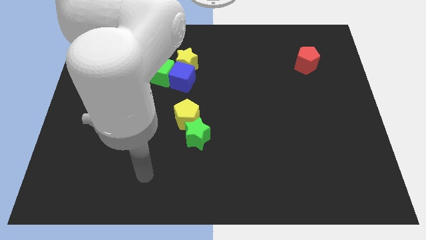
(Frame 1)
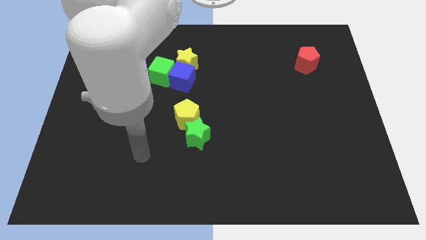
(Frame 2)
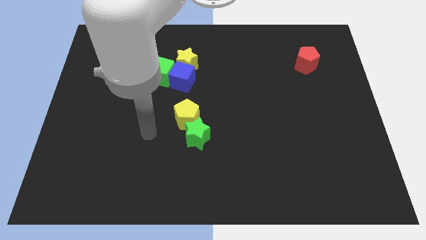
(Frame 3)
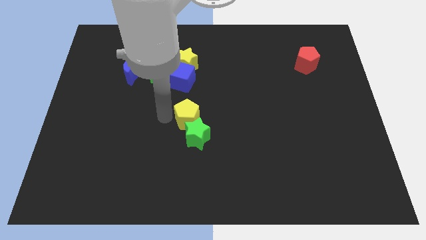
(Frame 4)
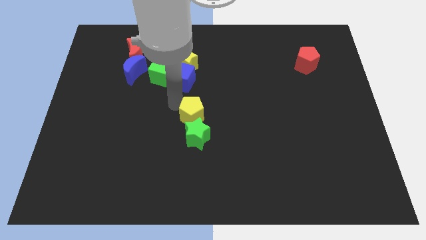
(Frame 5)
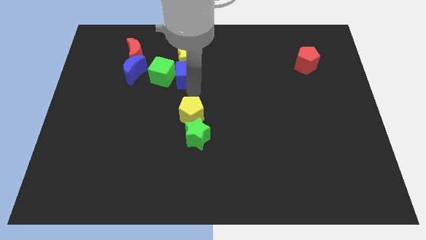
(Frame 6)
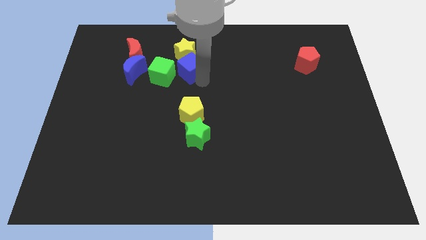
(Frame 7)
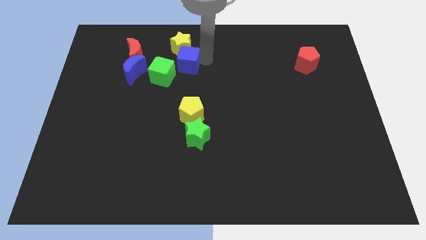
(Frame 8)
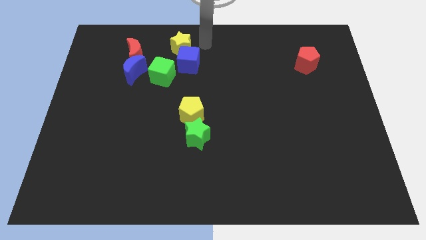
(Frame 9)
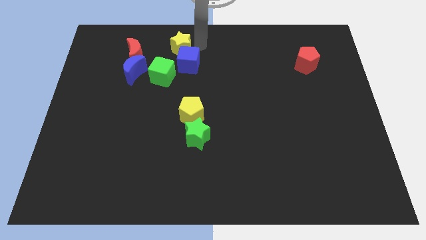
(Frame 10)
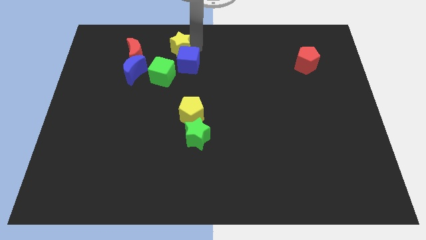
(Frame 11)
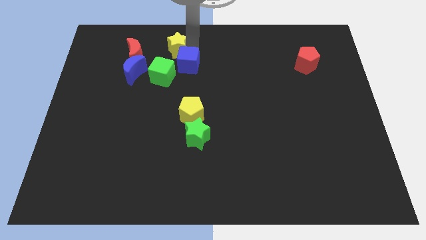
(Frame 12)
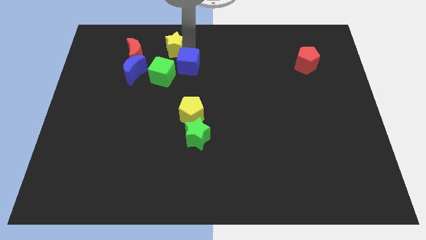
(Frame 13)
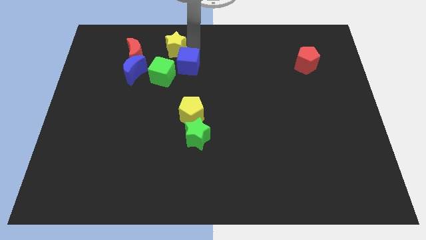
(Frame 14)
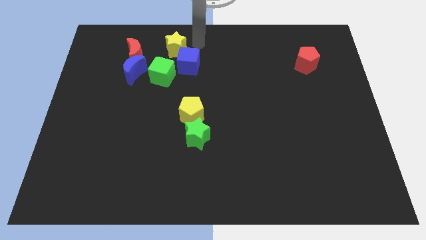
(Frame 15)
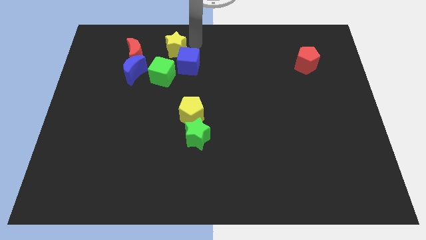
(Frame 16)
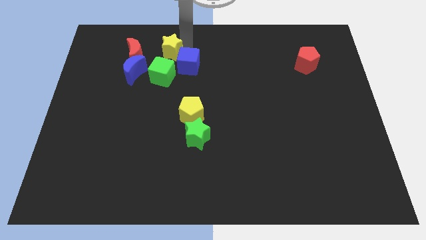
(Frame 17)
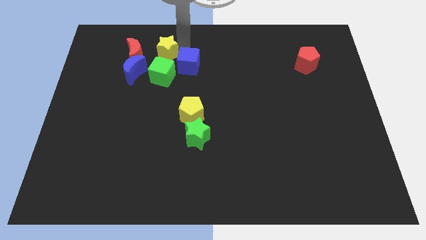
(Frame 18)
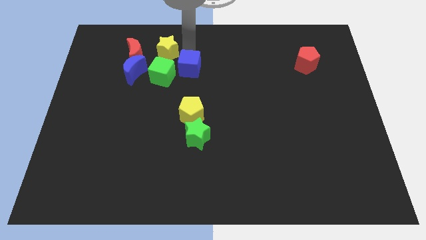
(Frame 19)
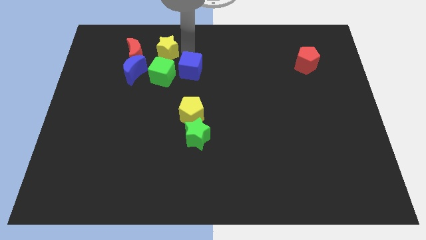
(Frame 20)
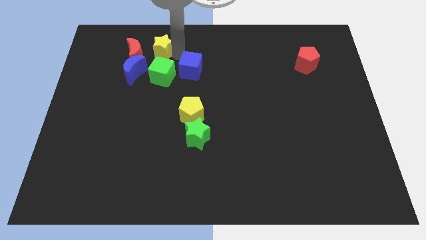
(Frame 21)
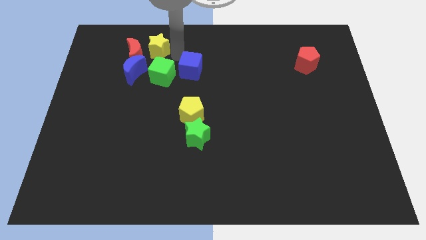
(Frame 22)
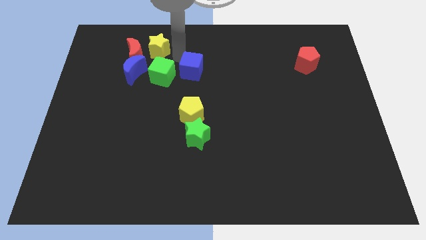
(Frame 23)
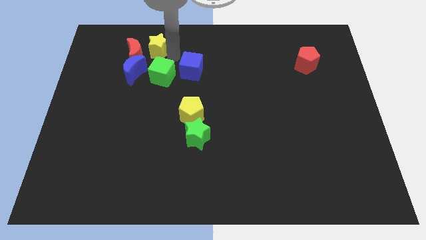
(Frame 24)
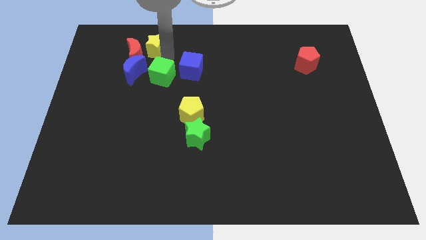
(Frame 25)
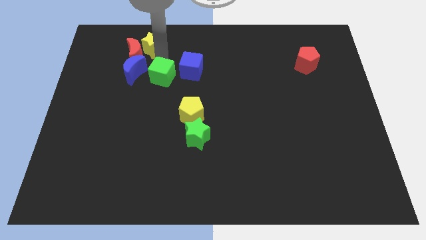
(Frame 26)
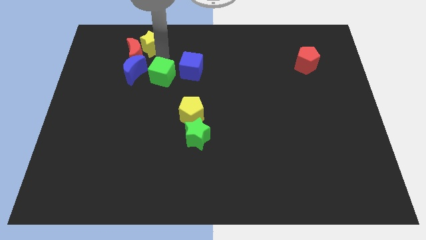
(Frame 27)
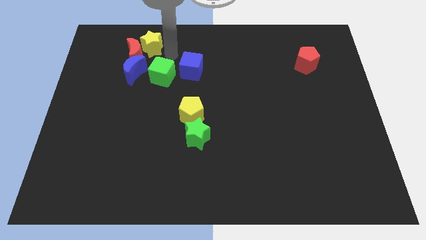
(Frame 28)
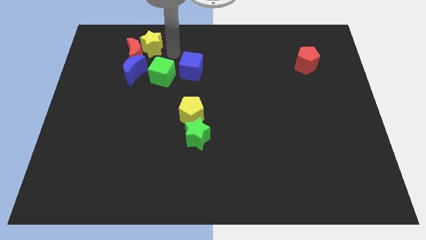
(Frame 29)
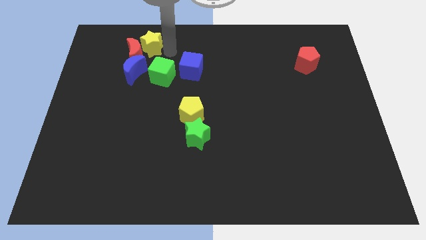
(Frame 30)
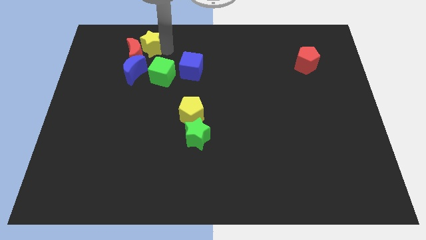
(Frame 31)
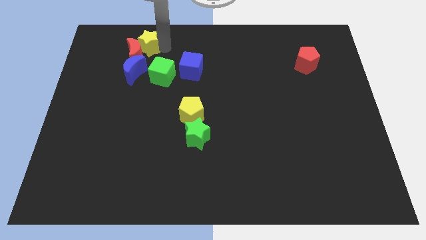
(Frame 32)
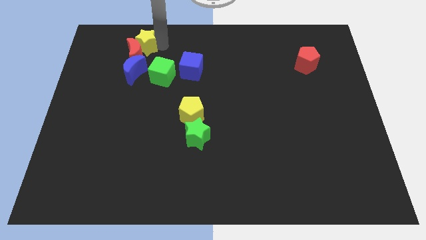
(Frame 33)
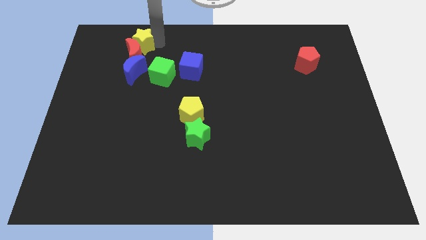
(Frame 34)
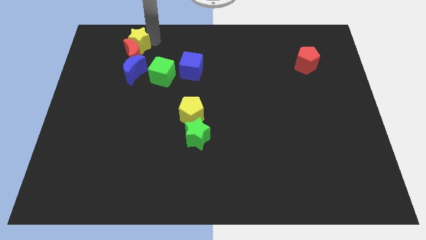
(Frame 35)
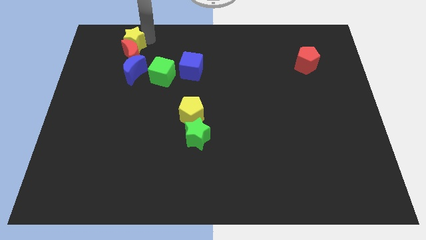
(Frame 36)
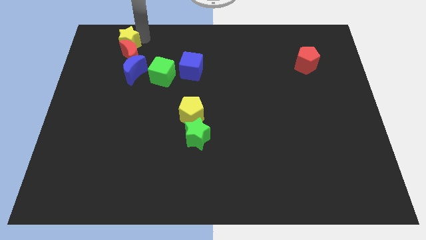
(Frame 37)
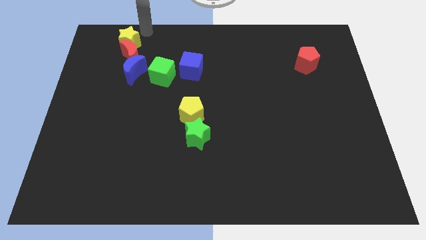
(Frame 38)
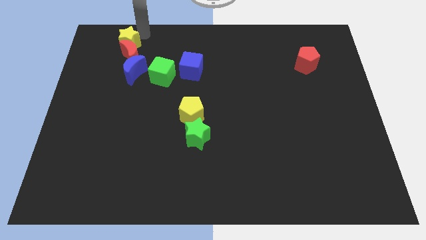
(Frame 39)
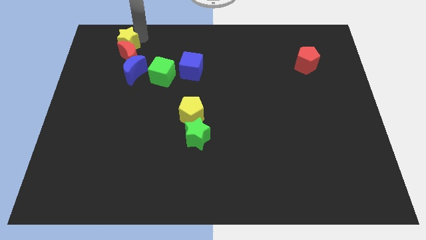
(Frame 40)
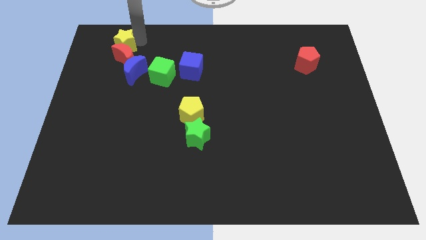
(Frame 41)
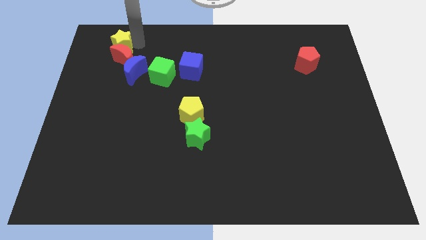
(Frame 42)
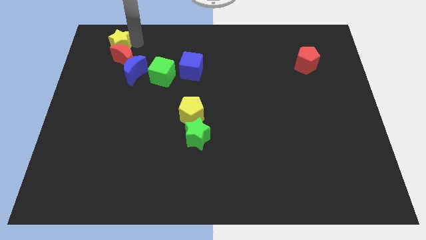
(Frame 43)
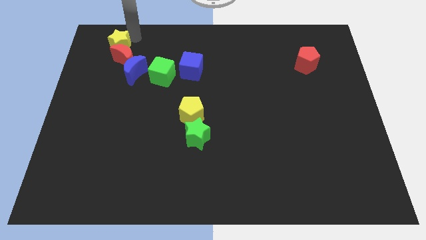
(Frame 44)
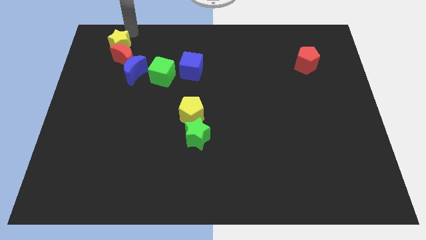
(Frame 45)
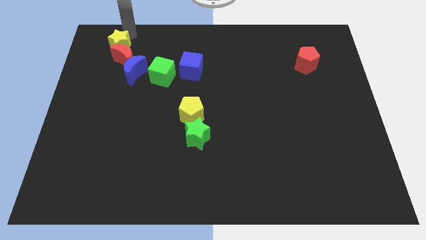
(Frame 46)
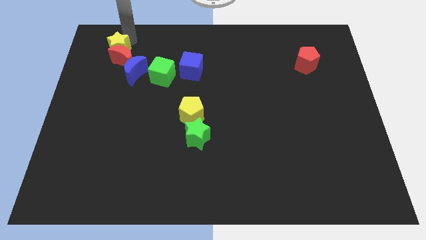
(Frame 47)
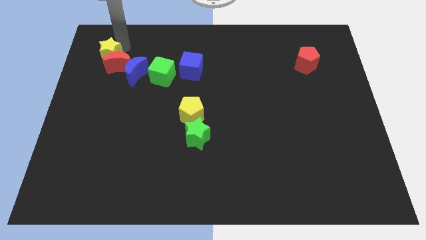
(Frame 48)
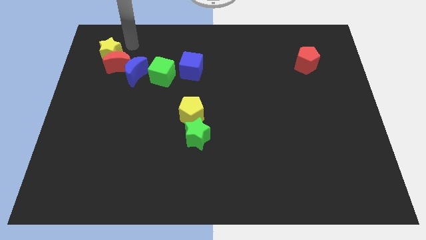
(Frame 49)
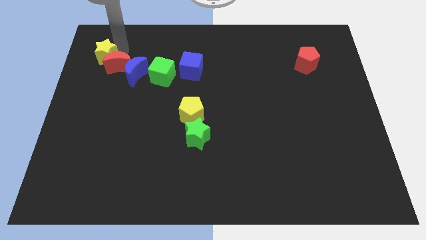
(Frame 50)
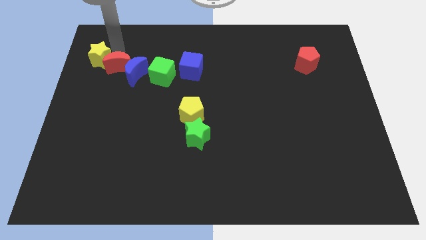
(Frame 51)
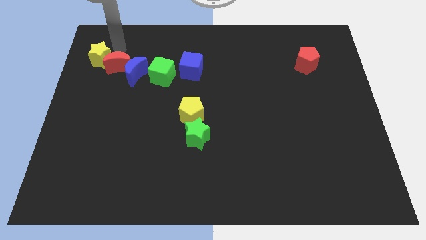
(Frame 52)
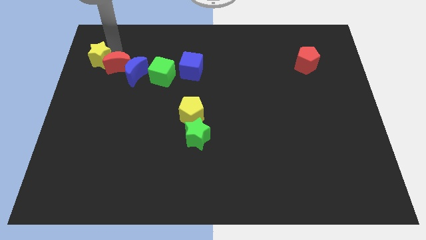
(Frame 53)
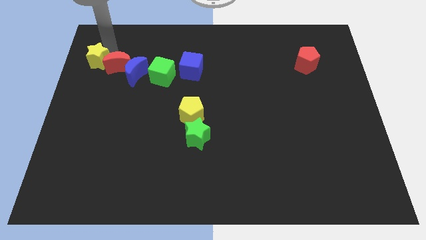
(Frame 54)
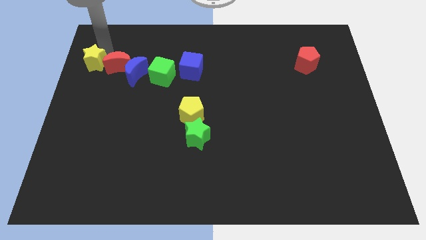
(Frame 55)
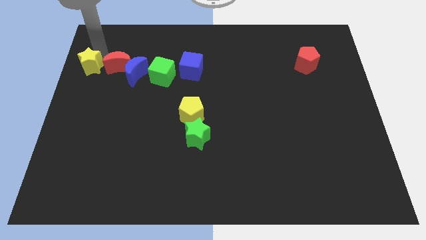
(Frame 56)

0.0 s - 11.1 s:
push the yellow star to the center left

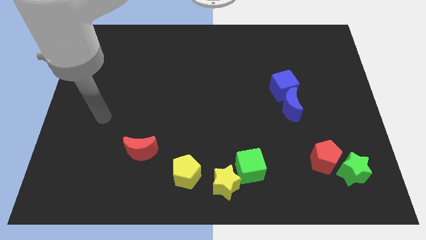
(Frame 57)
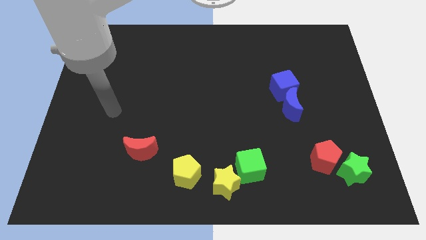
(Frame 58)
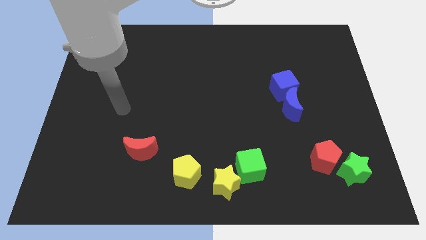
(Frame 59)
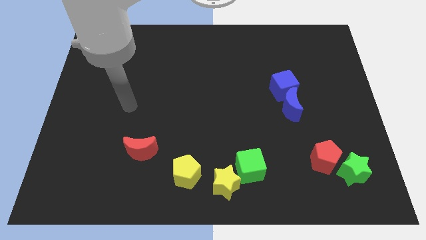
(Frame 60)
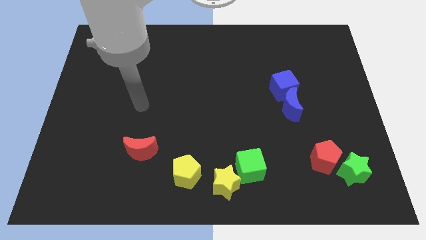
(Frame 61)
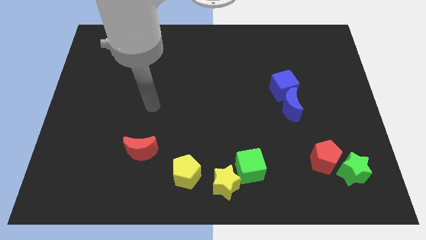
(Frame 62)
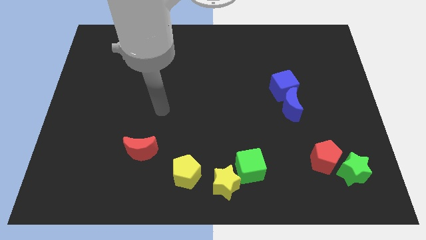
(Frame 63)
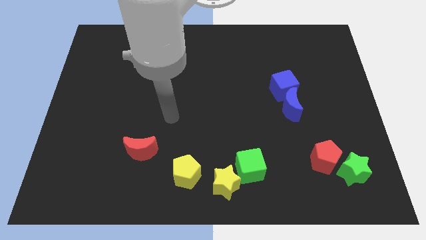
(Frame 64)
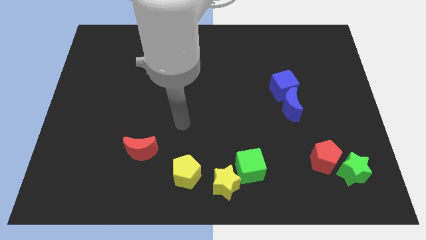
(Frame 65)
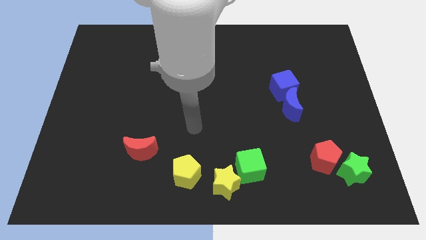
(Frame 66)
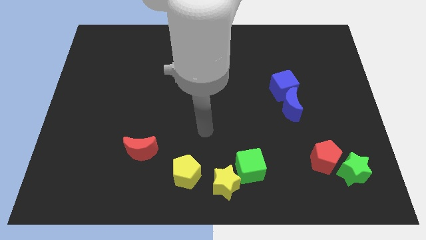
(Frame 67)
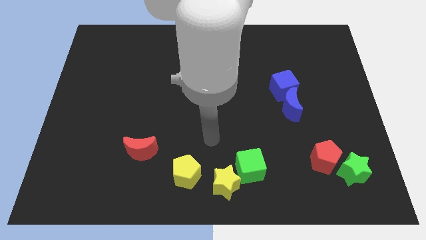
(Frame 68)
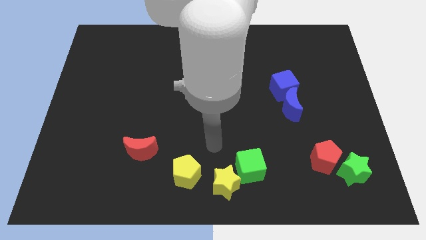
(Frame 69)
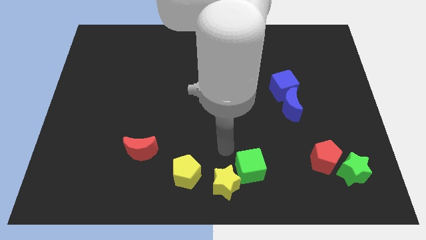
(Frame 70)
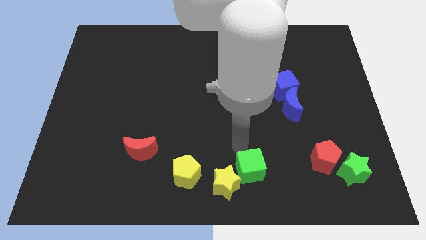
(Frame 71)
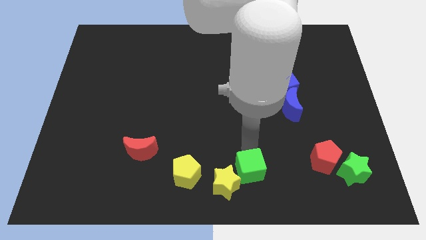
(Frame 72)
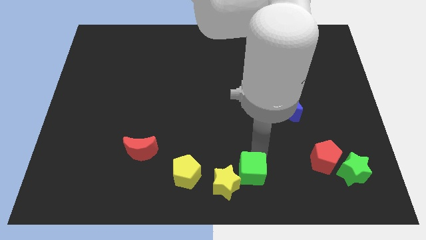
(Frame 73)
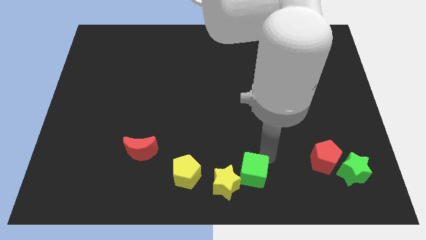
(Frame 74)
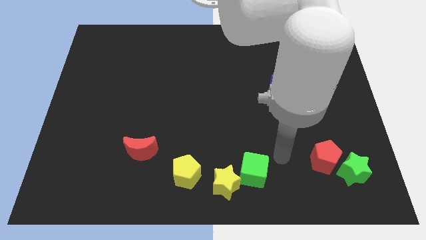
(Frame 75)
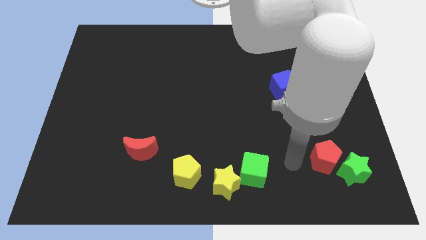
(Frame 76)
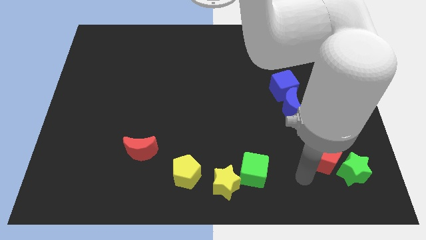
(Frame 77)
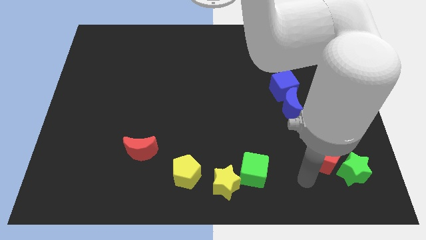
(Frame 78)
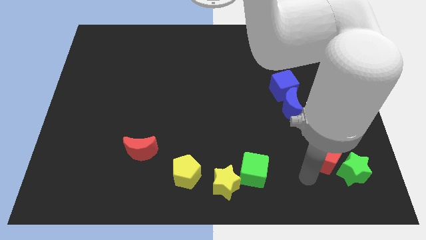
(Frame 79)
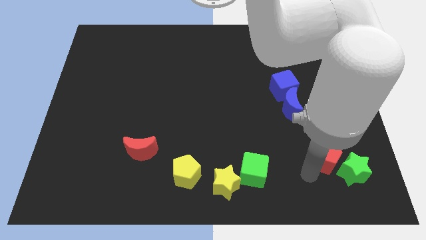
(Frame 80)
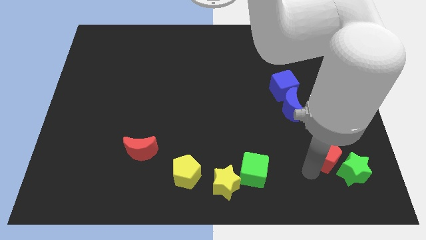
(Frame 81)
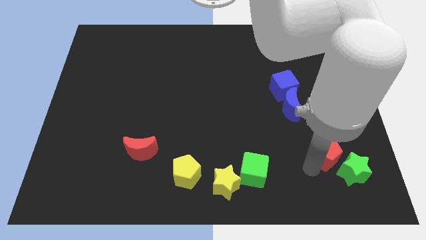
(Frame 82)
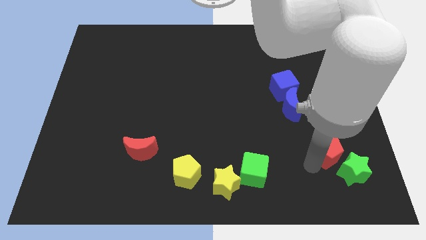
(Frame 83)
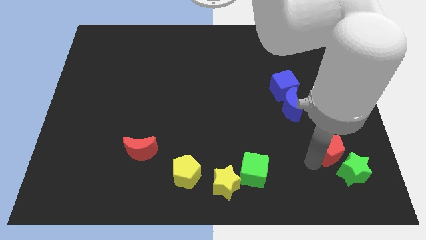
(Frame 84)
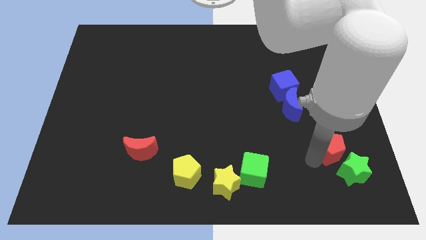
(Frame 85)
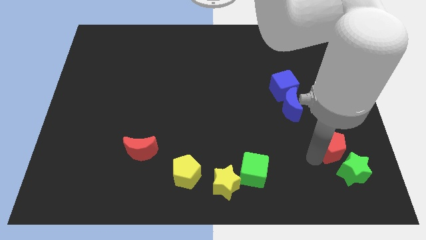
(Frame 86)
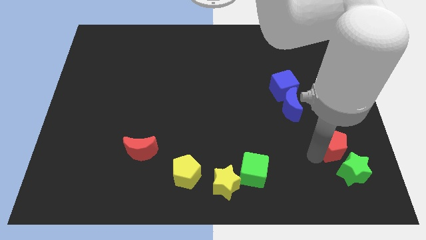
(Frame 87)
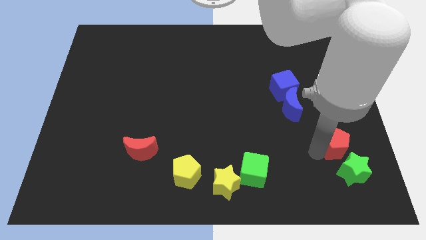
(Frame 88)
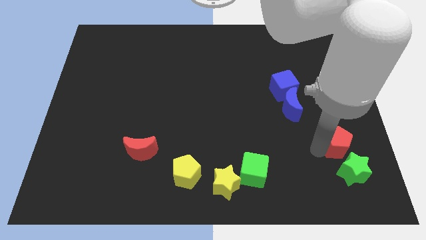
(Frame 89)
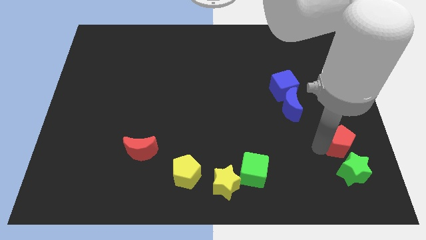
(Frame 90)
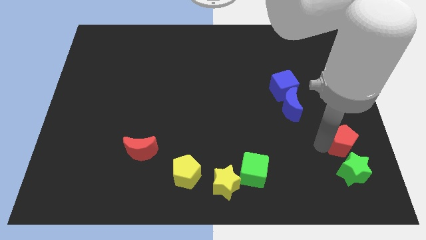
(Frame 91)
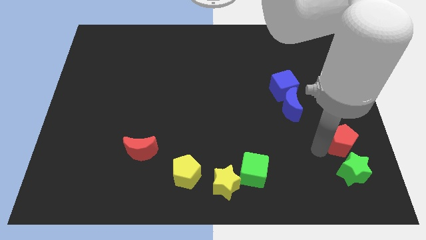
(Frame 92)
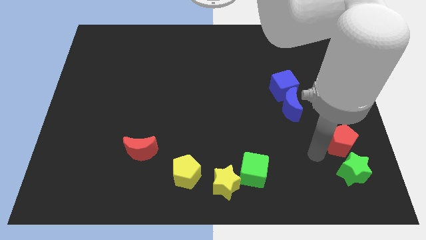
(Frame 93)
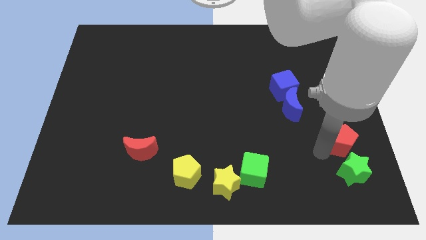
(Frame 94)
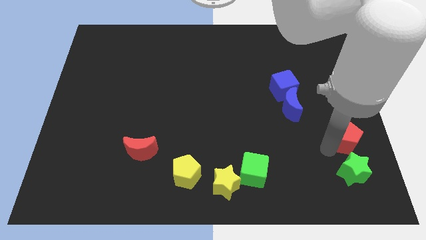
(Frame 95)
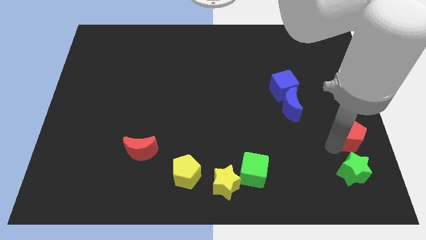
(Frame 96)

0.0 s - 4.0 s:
move the red pentagon to the center right
